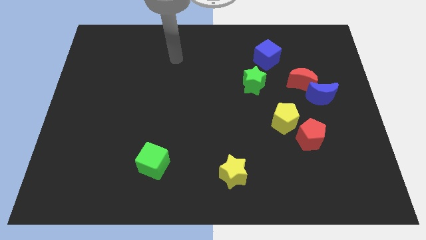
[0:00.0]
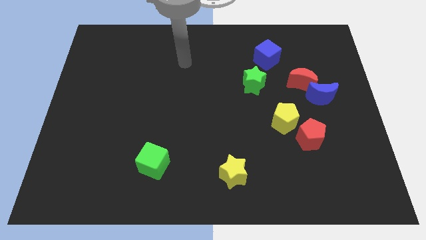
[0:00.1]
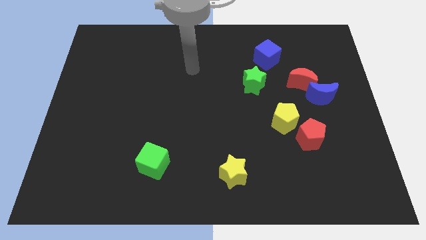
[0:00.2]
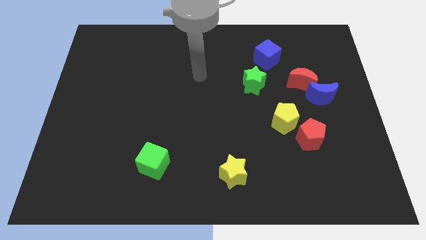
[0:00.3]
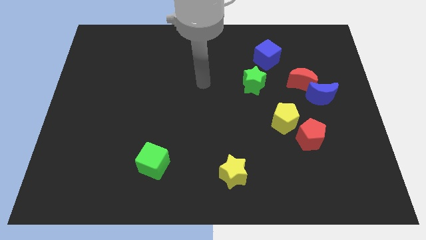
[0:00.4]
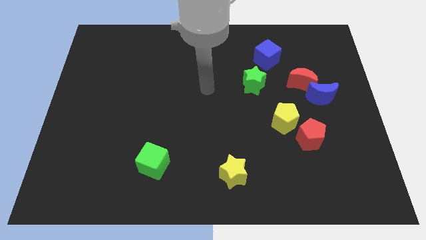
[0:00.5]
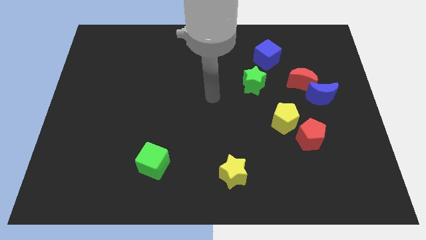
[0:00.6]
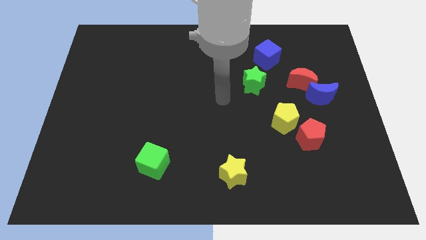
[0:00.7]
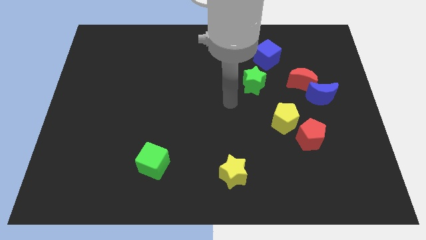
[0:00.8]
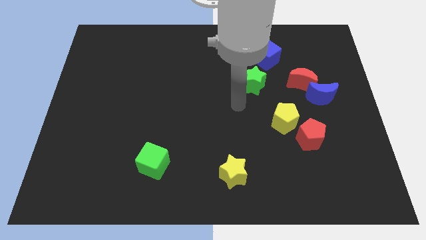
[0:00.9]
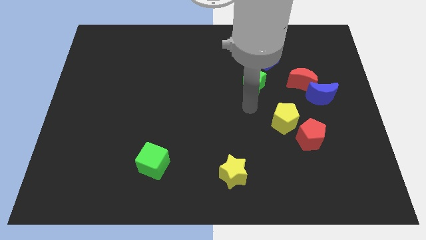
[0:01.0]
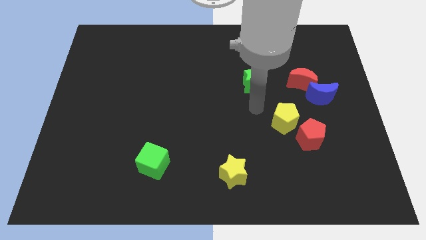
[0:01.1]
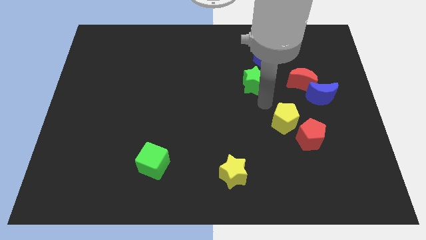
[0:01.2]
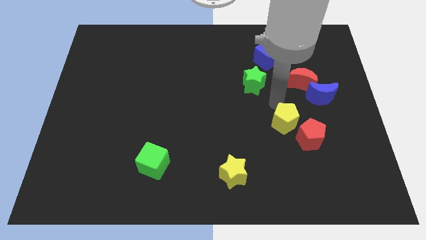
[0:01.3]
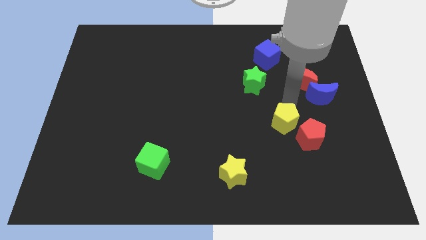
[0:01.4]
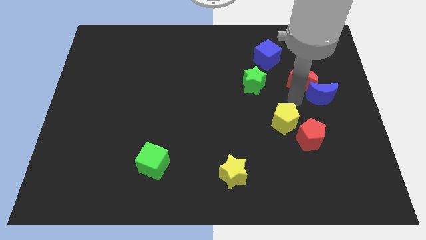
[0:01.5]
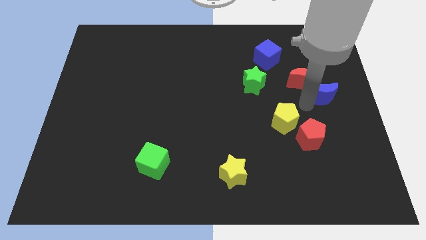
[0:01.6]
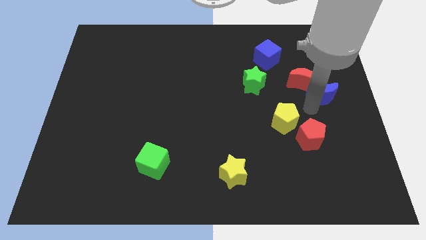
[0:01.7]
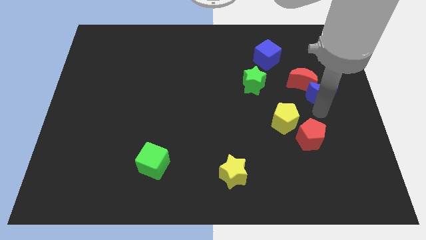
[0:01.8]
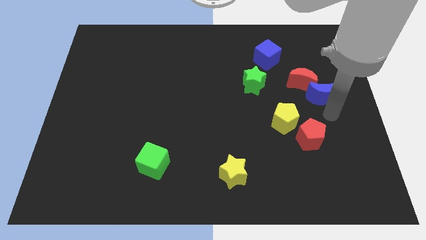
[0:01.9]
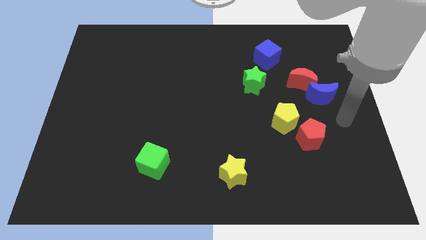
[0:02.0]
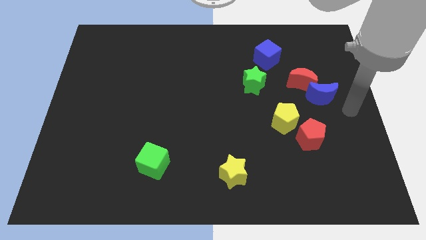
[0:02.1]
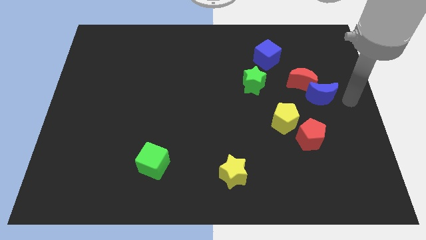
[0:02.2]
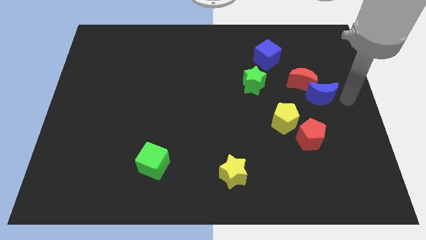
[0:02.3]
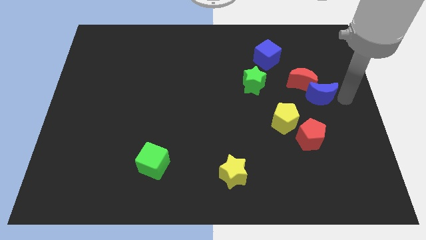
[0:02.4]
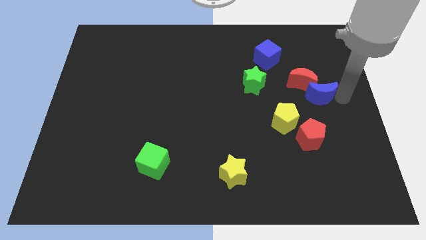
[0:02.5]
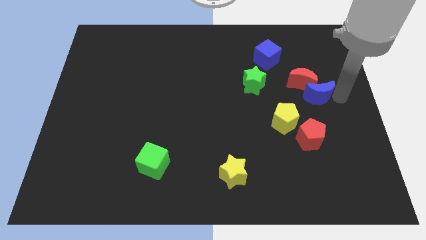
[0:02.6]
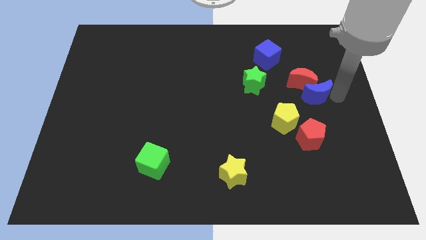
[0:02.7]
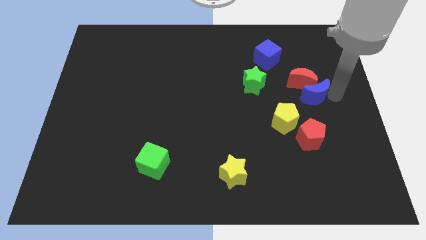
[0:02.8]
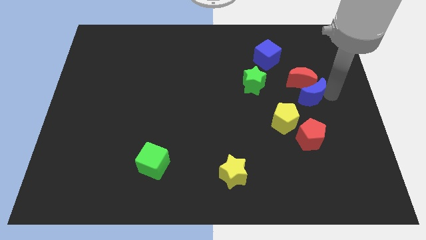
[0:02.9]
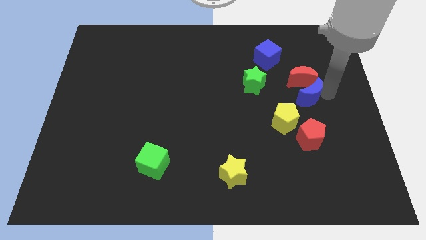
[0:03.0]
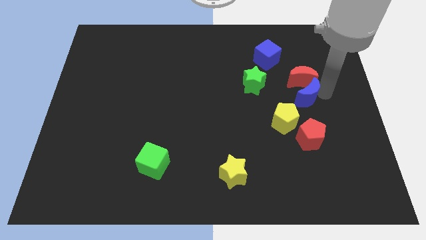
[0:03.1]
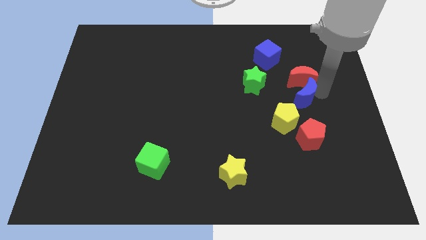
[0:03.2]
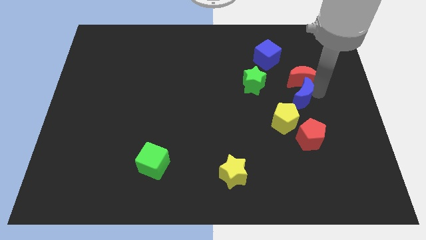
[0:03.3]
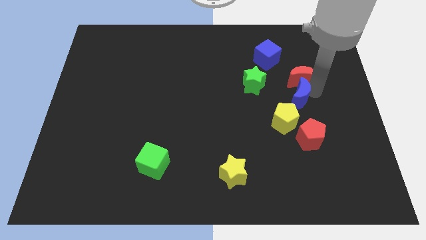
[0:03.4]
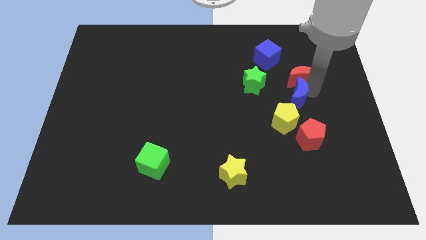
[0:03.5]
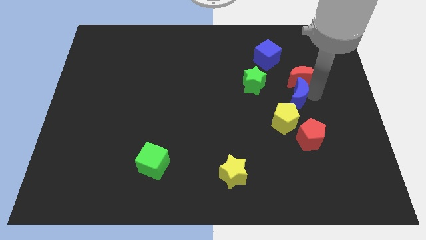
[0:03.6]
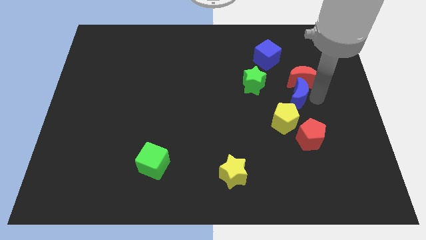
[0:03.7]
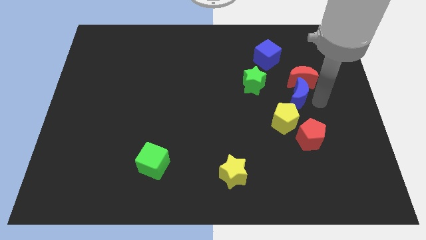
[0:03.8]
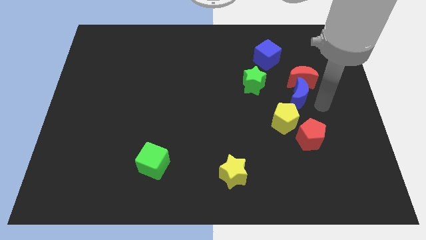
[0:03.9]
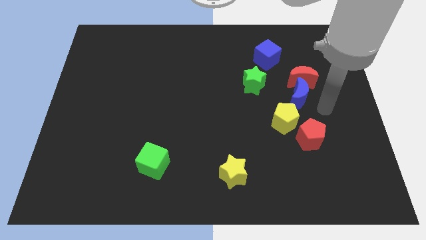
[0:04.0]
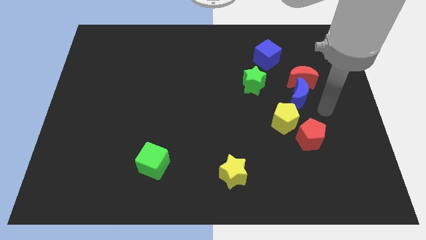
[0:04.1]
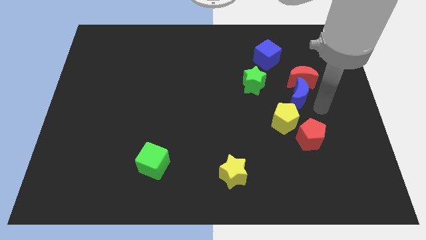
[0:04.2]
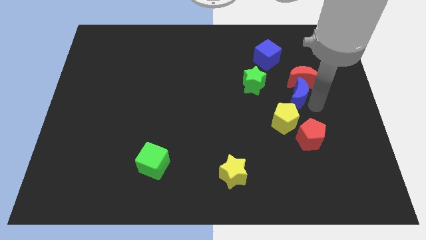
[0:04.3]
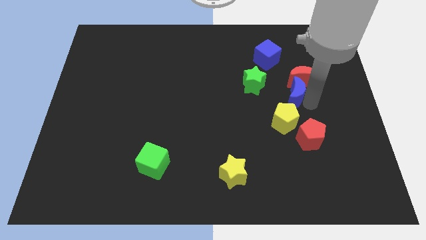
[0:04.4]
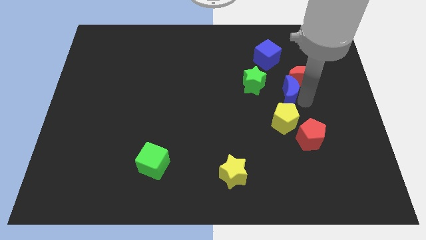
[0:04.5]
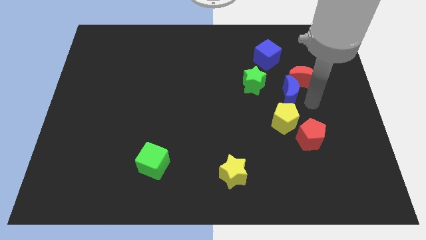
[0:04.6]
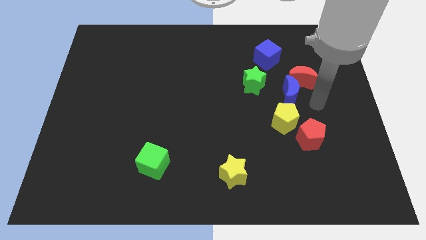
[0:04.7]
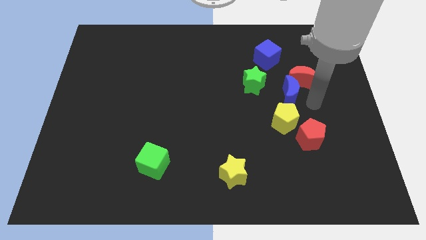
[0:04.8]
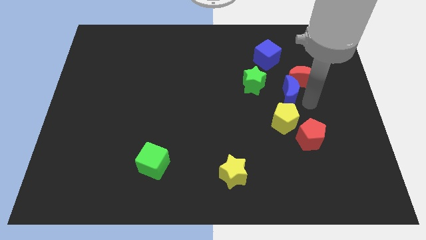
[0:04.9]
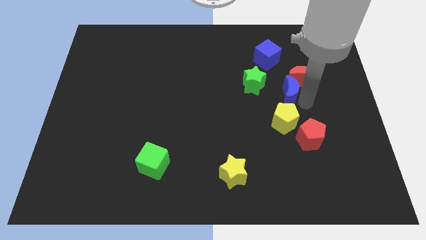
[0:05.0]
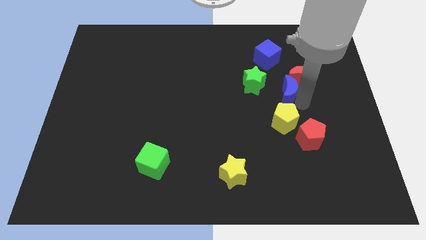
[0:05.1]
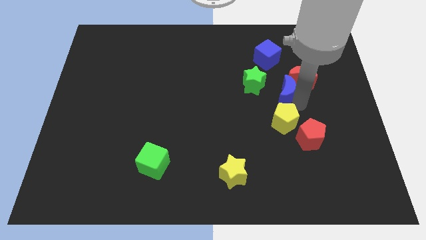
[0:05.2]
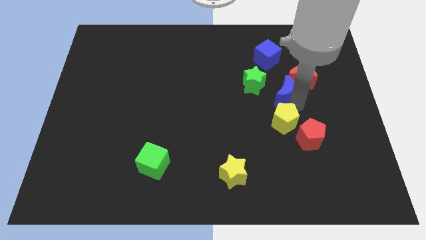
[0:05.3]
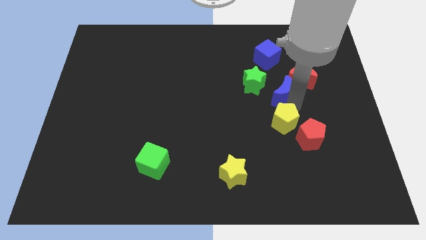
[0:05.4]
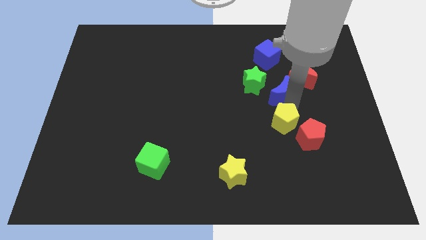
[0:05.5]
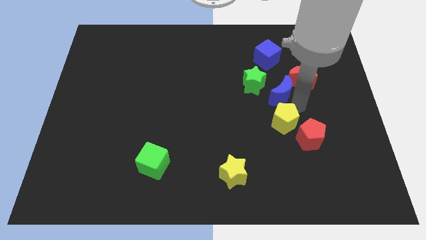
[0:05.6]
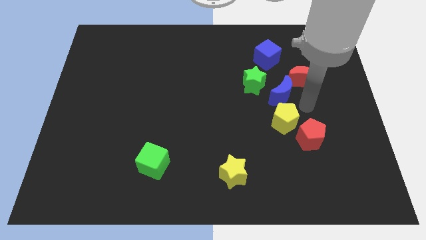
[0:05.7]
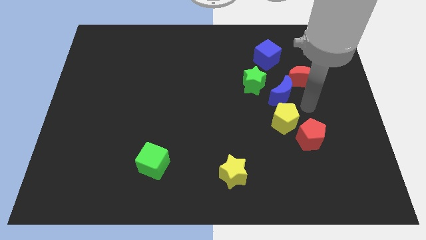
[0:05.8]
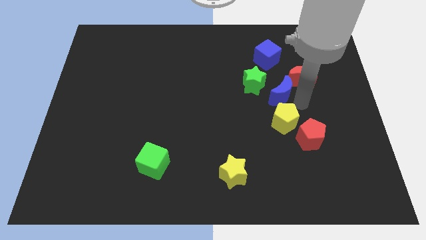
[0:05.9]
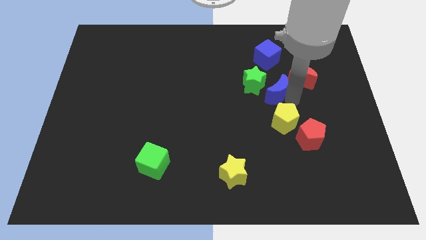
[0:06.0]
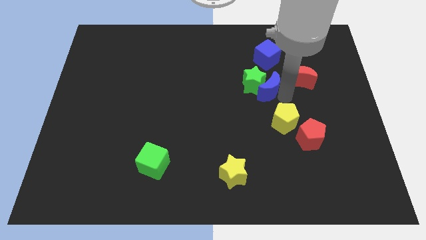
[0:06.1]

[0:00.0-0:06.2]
move the blue moon next to the green star
